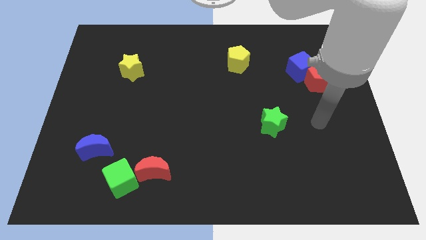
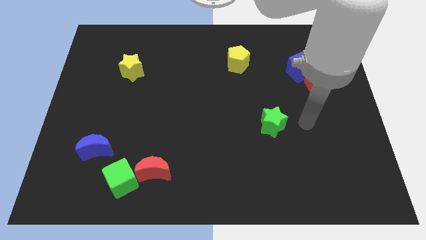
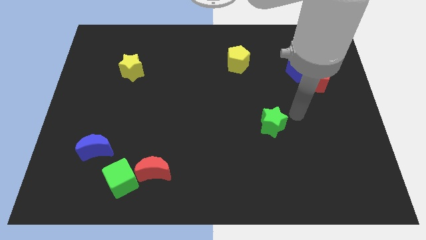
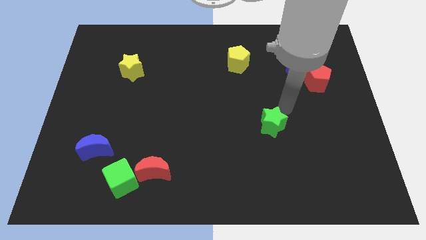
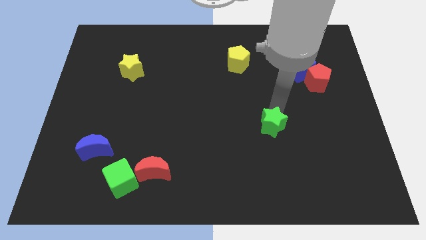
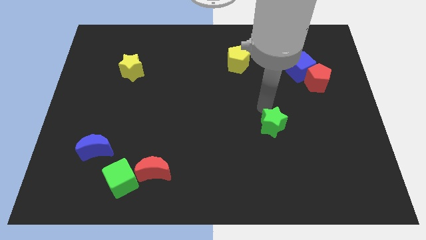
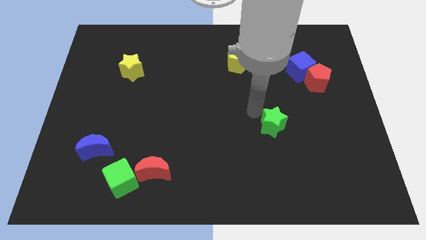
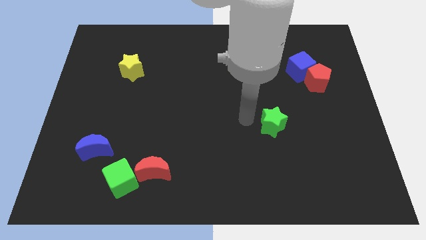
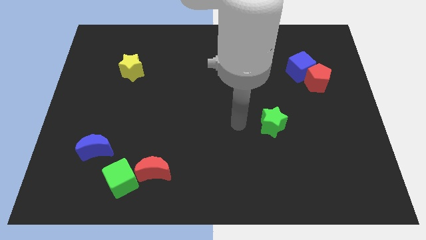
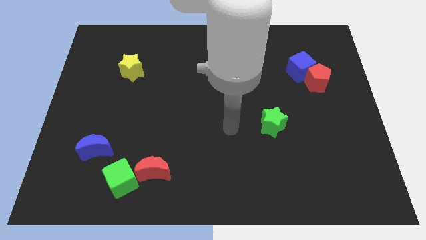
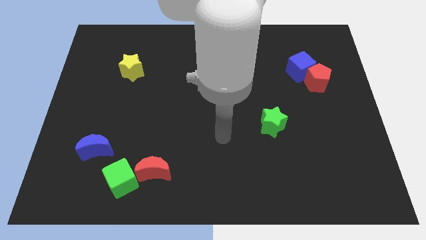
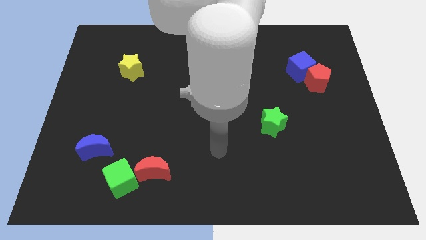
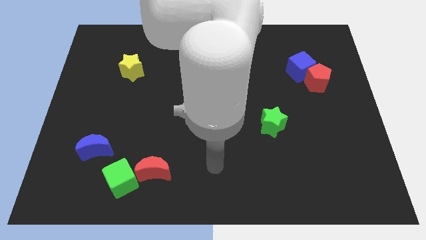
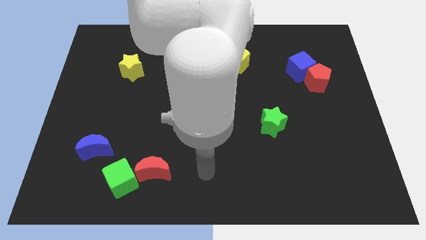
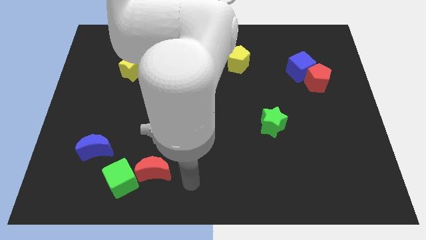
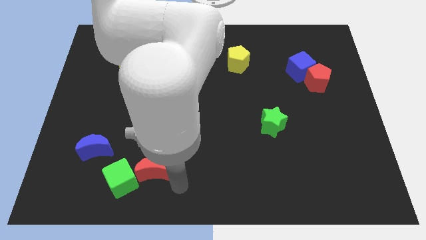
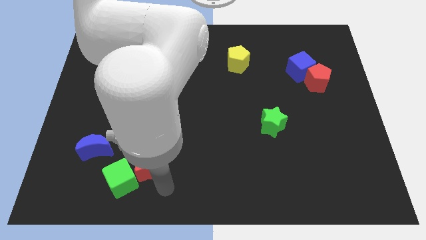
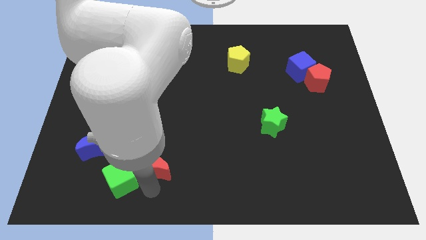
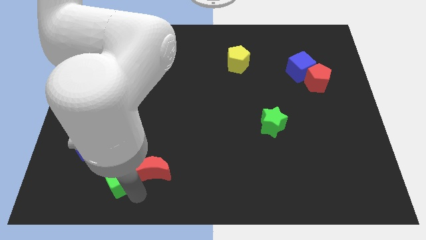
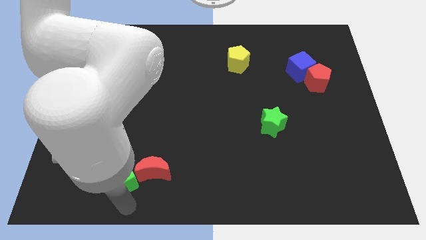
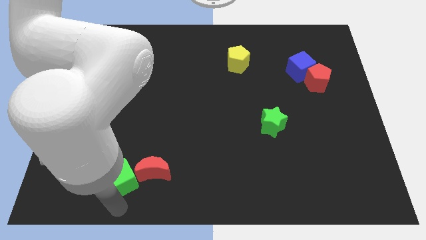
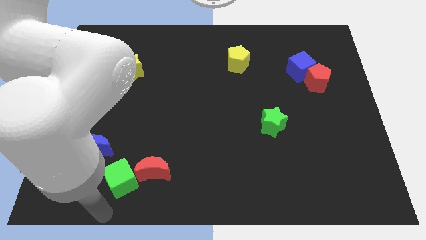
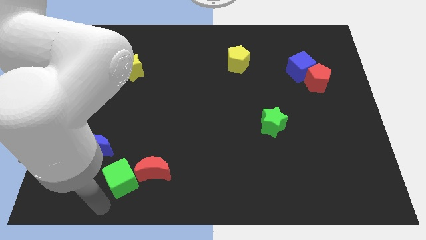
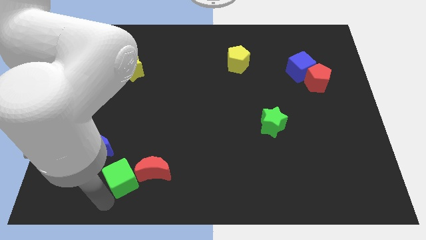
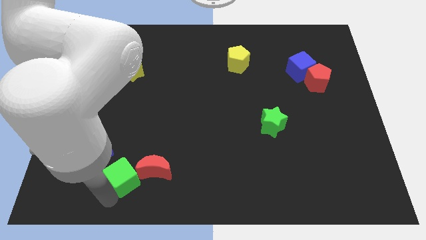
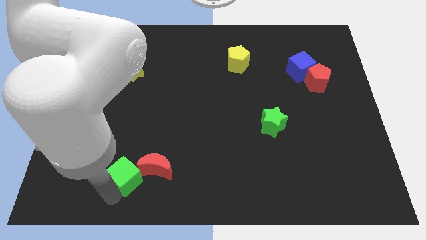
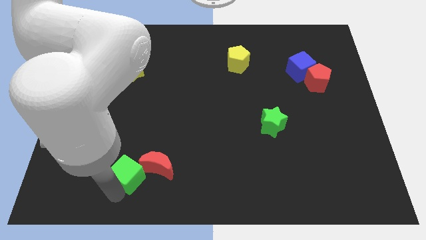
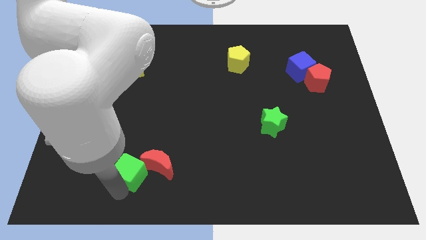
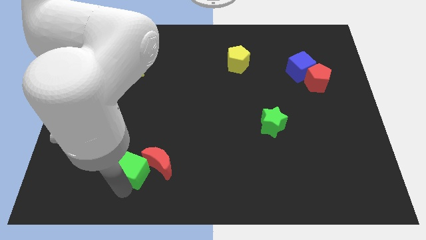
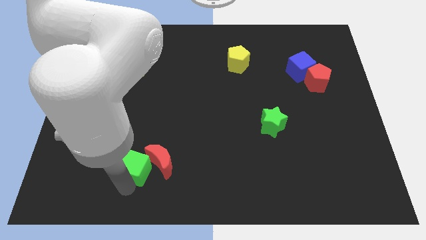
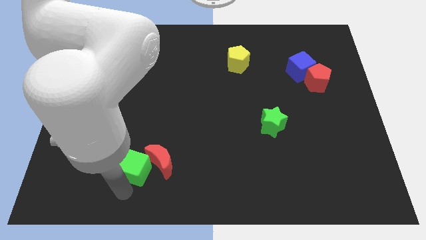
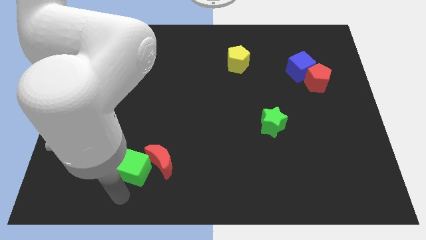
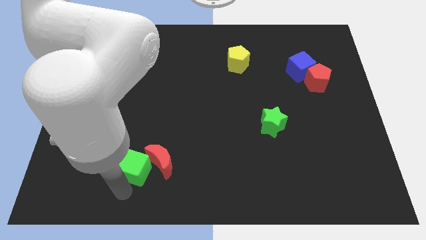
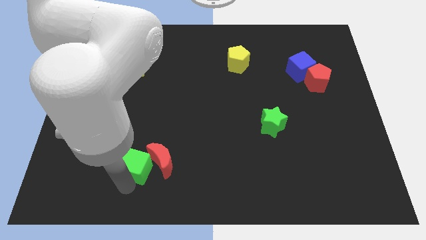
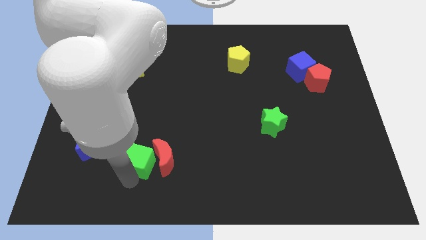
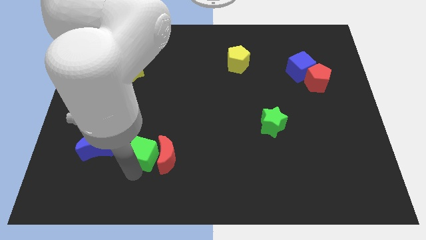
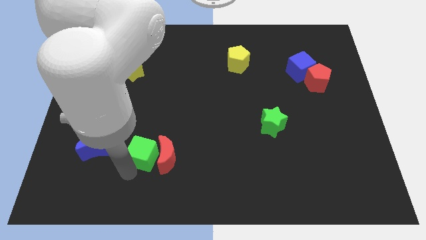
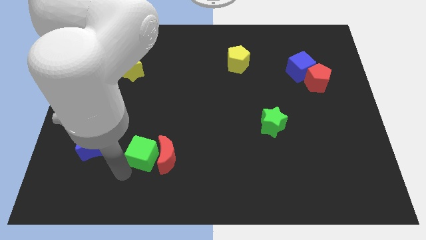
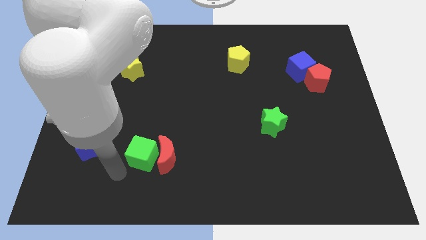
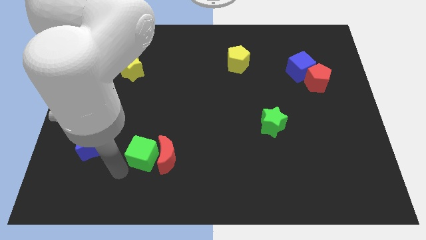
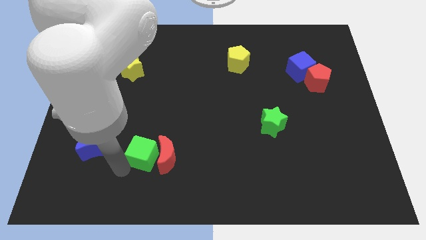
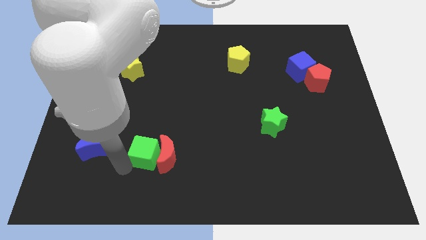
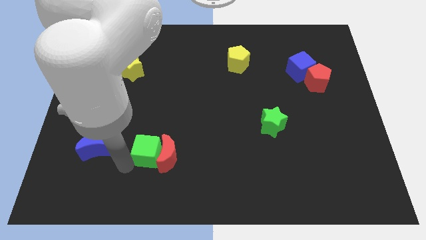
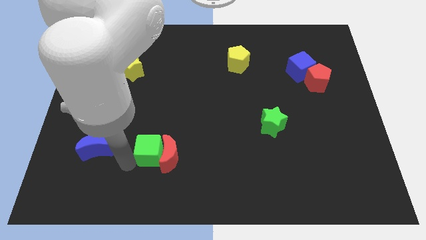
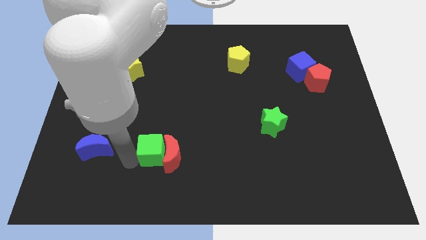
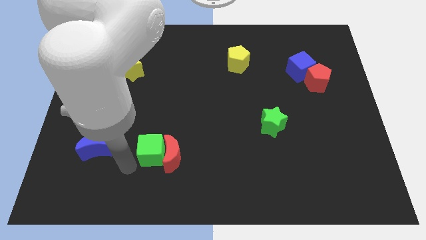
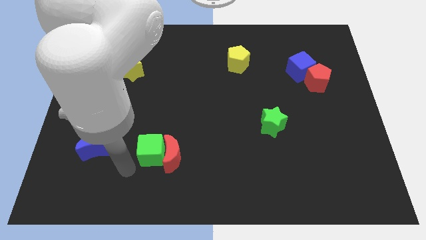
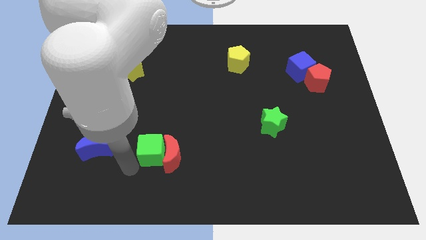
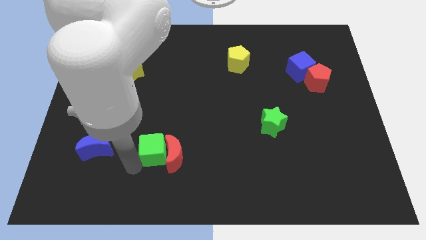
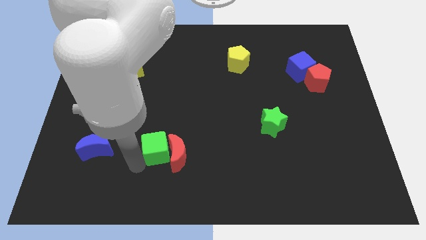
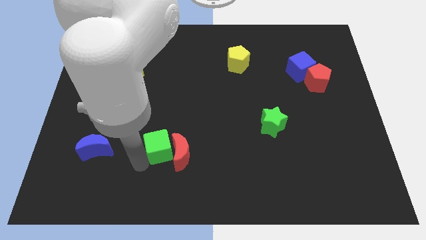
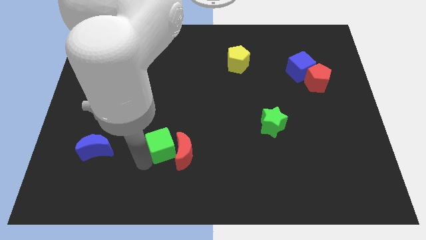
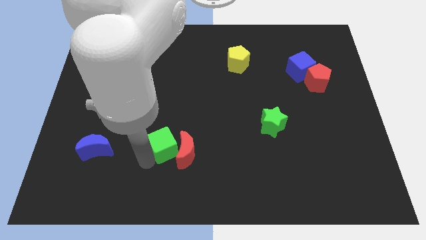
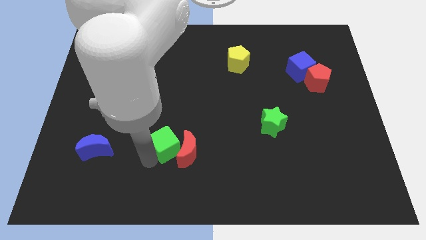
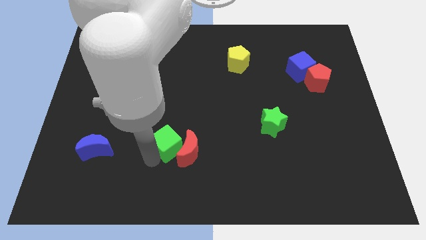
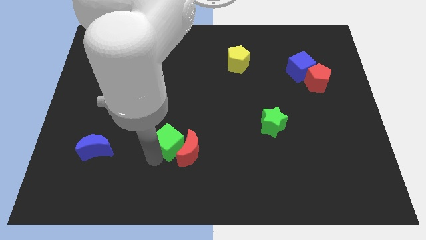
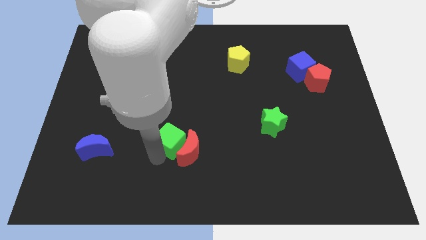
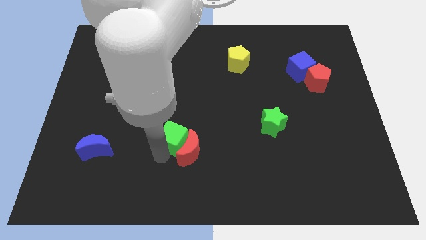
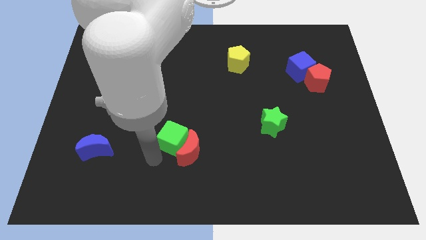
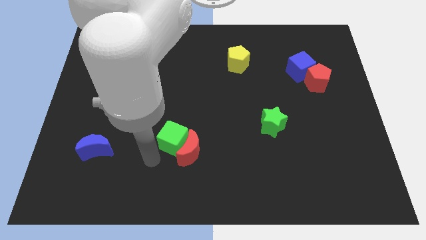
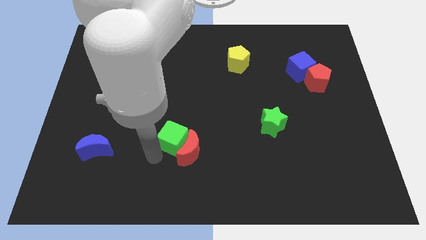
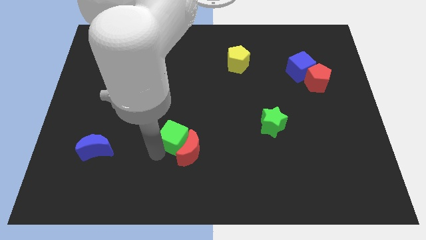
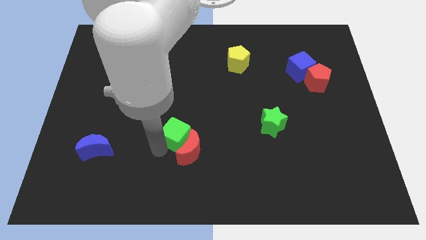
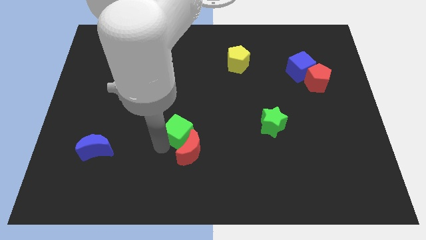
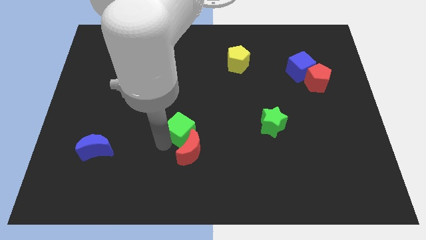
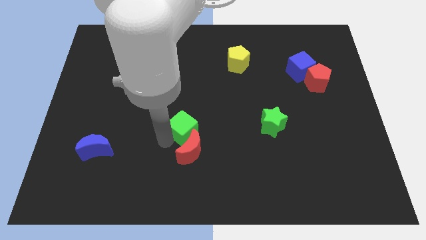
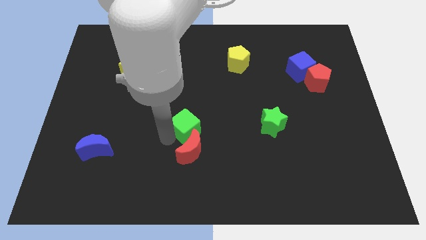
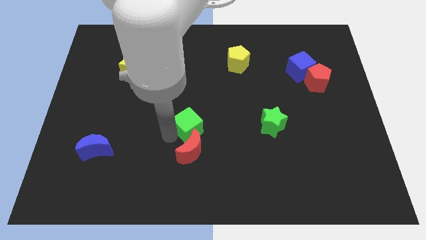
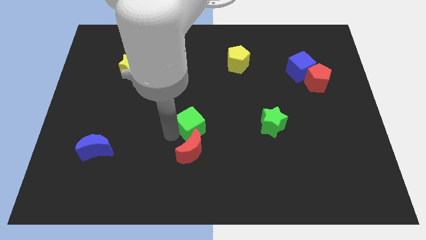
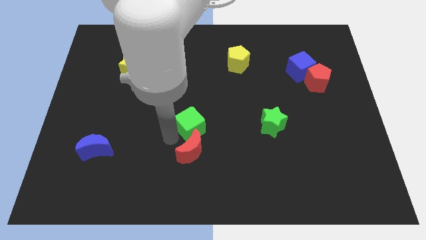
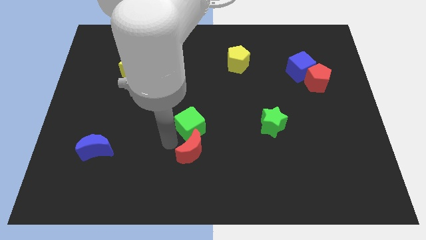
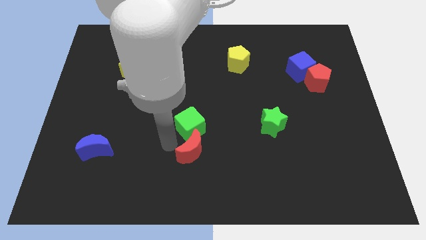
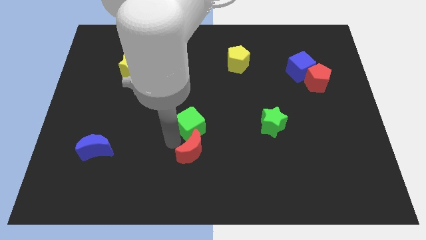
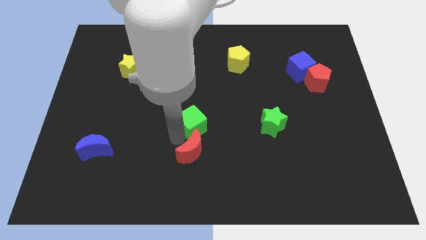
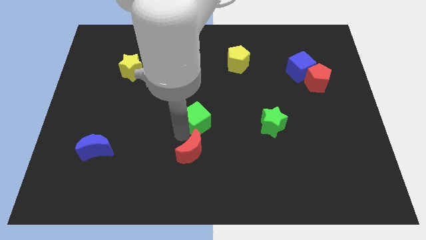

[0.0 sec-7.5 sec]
slide the green cube up and to the right diagonally

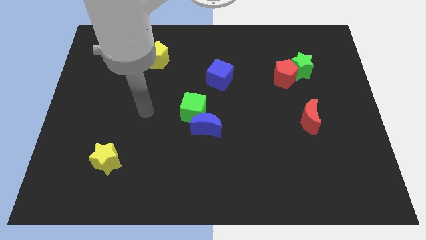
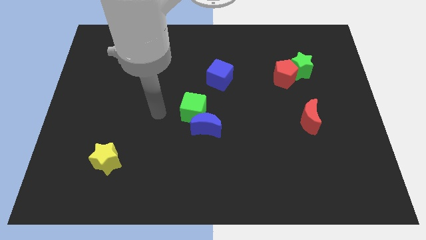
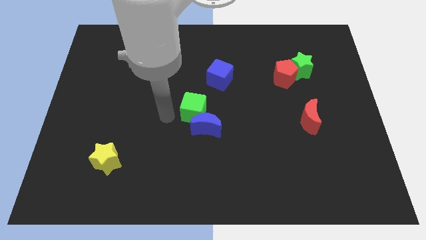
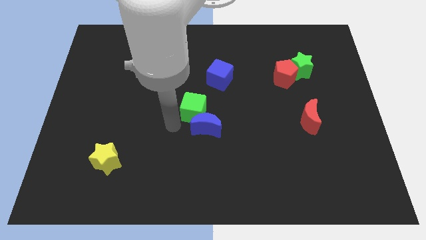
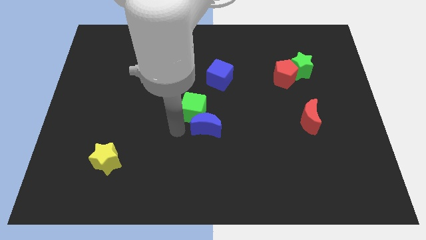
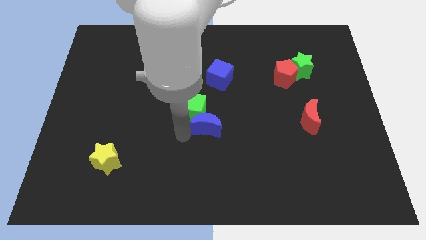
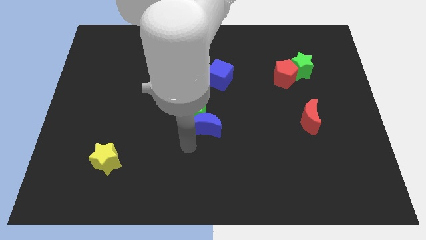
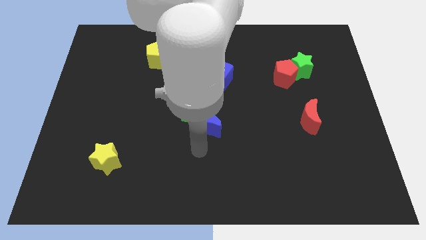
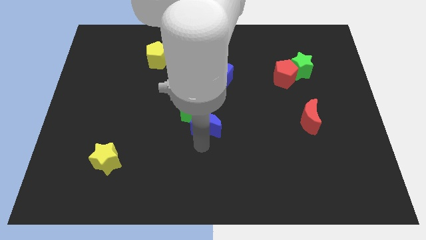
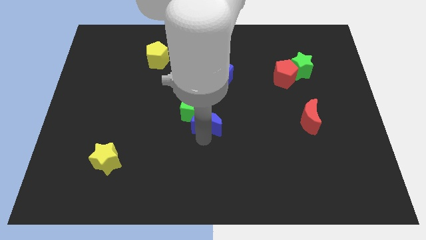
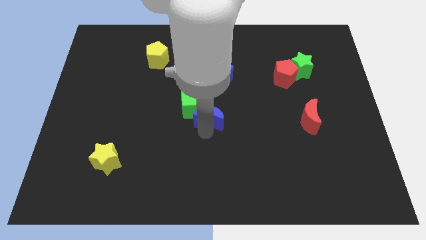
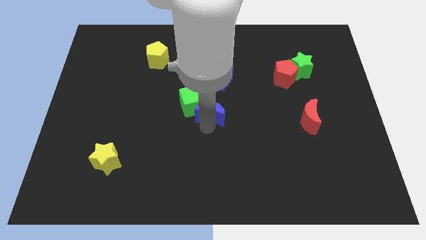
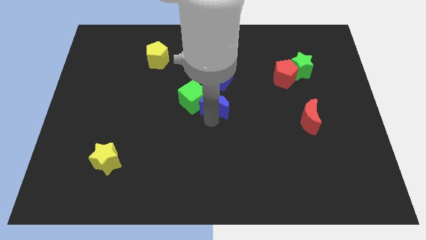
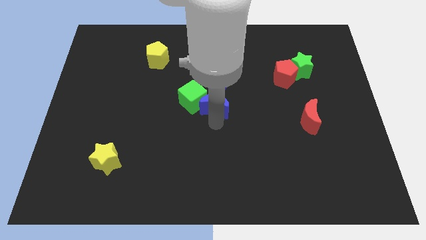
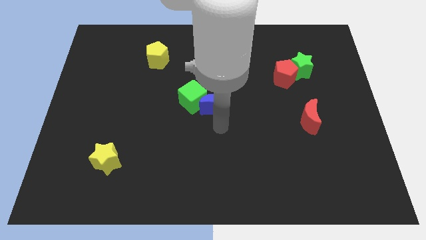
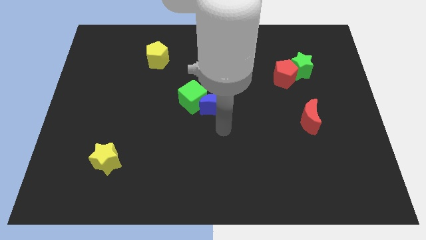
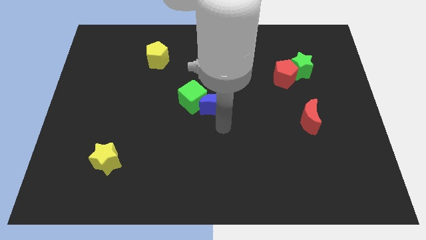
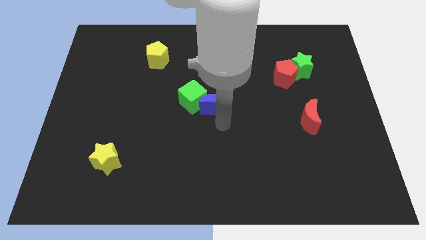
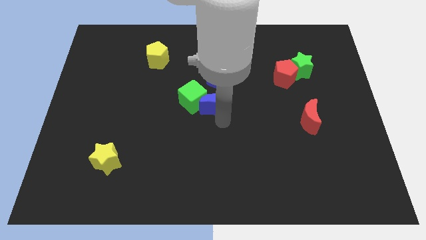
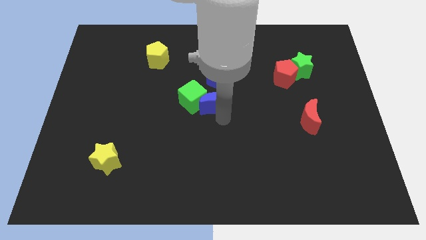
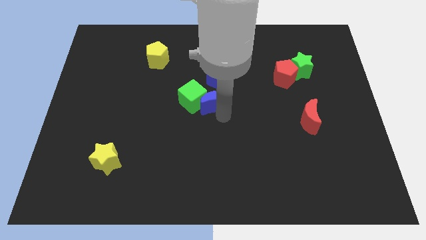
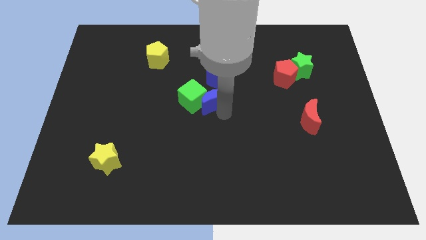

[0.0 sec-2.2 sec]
slightly push the blue moon up
